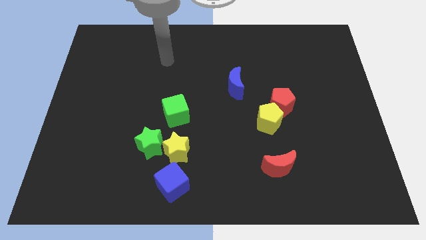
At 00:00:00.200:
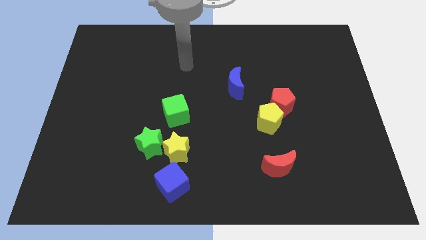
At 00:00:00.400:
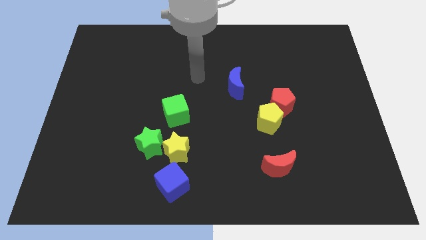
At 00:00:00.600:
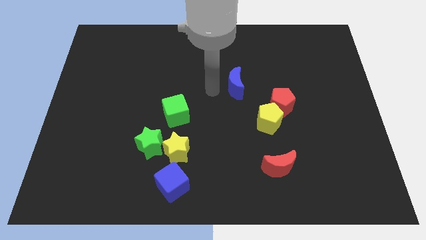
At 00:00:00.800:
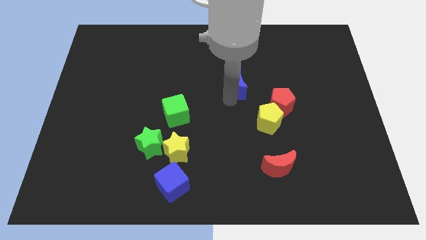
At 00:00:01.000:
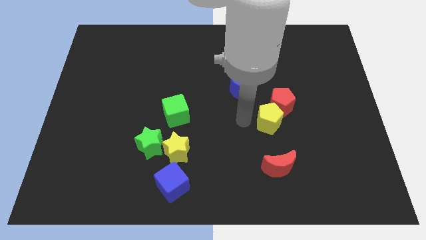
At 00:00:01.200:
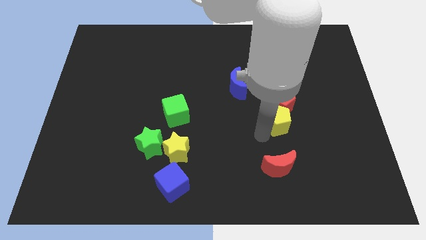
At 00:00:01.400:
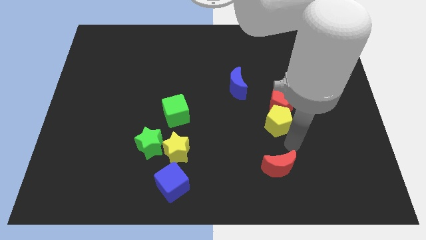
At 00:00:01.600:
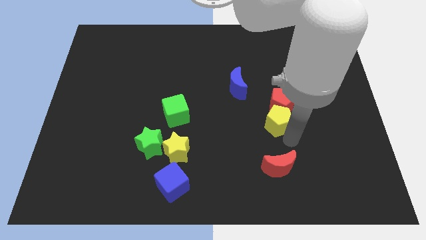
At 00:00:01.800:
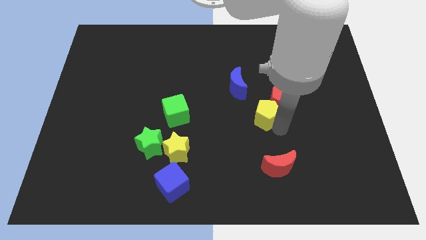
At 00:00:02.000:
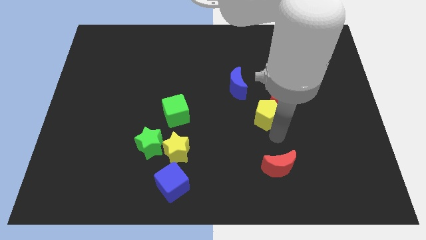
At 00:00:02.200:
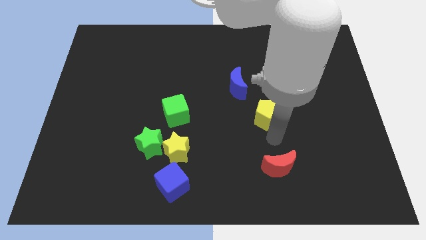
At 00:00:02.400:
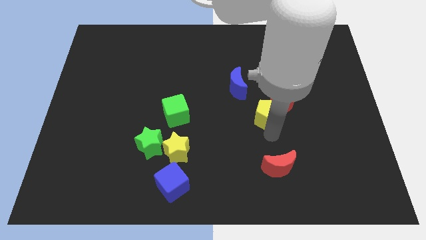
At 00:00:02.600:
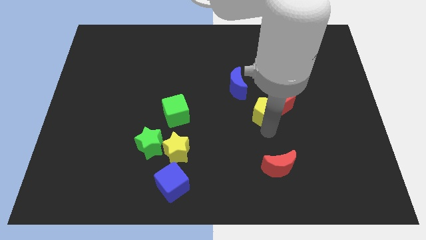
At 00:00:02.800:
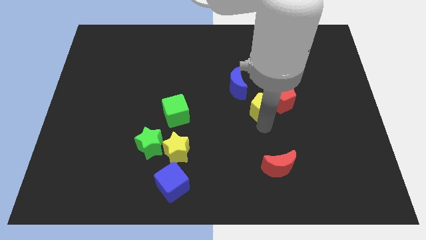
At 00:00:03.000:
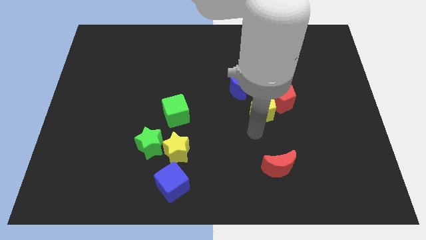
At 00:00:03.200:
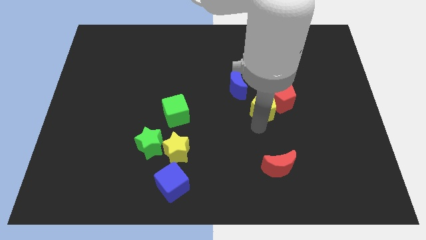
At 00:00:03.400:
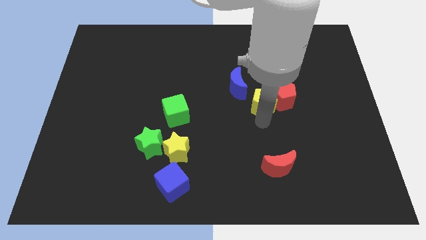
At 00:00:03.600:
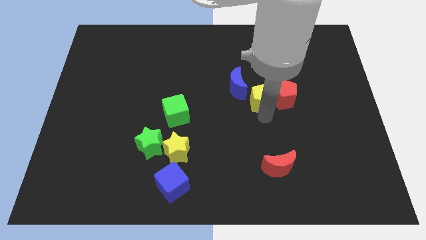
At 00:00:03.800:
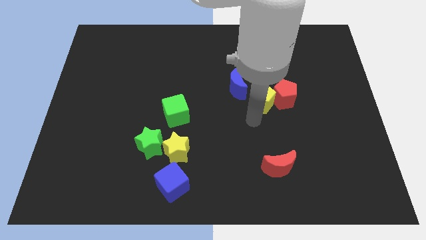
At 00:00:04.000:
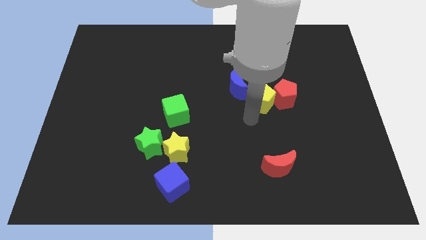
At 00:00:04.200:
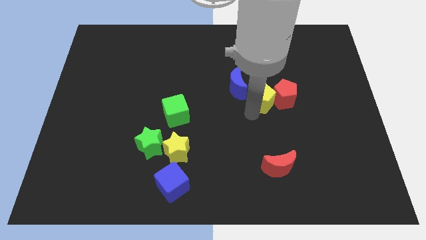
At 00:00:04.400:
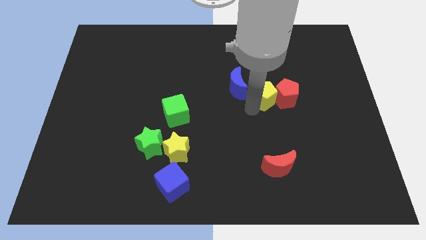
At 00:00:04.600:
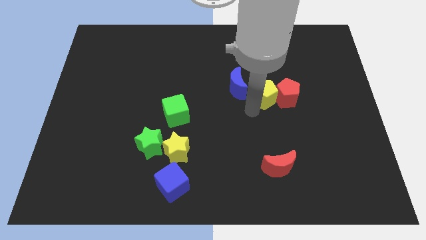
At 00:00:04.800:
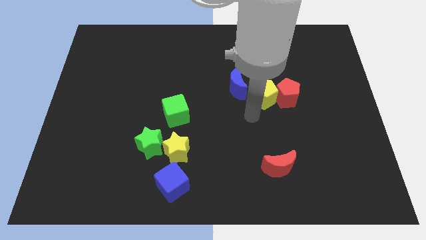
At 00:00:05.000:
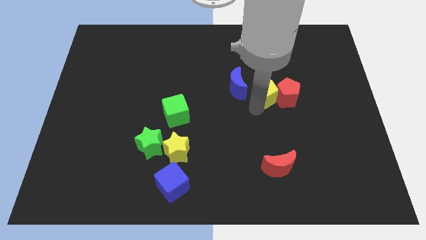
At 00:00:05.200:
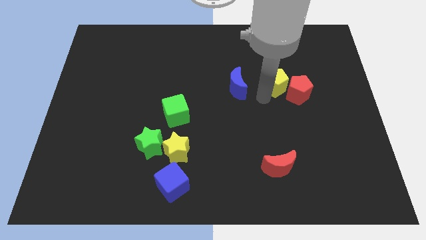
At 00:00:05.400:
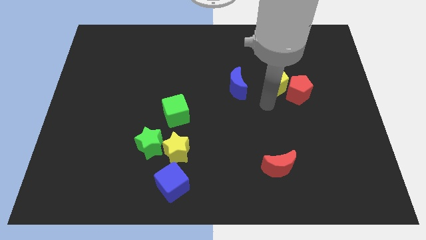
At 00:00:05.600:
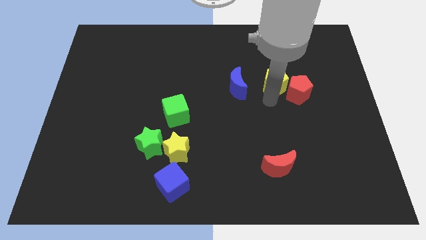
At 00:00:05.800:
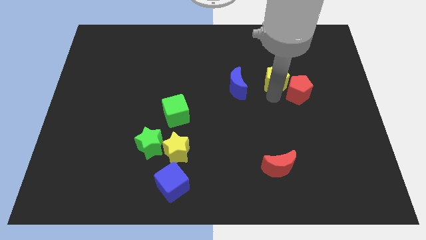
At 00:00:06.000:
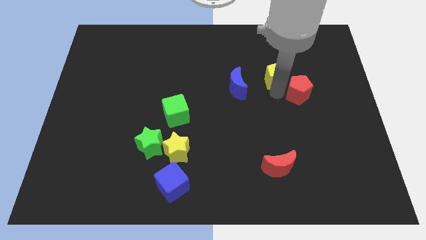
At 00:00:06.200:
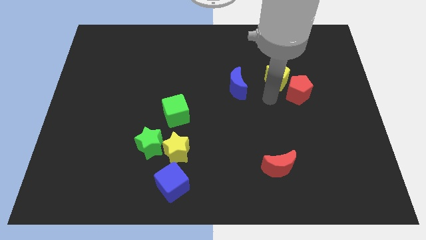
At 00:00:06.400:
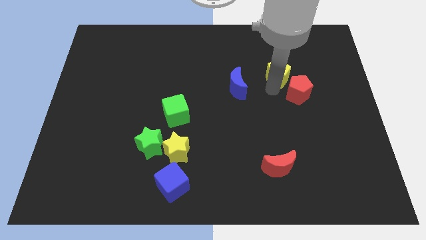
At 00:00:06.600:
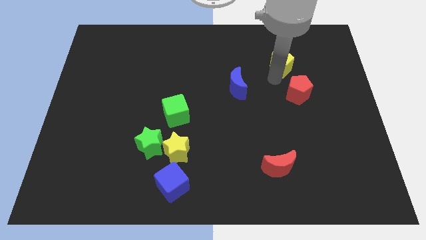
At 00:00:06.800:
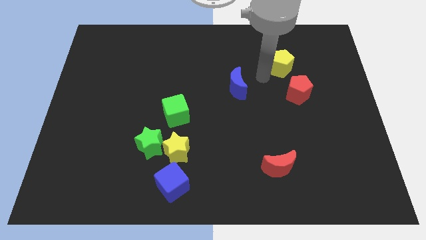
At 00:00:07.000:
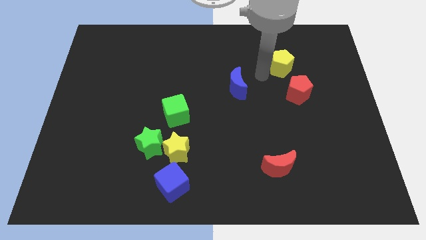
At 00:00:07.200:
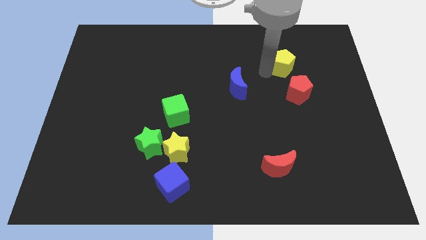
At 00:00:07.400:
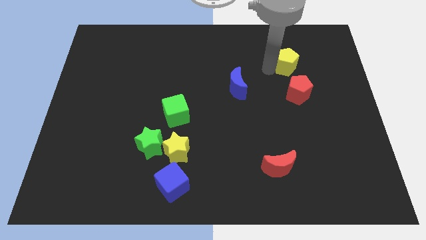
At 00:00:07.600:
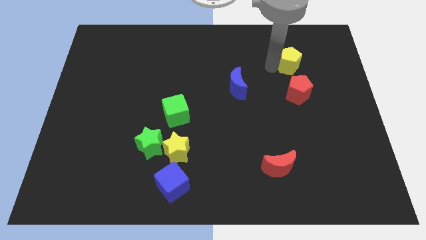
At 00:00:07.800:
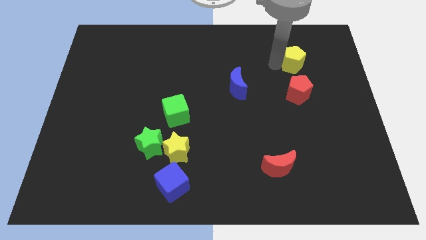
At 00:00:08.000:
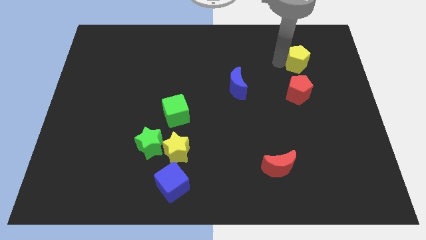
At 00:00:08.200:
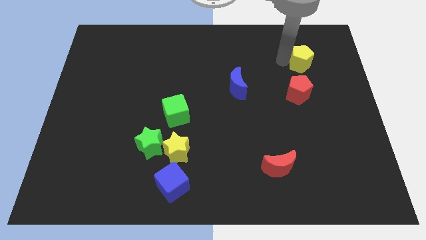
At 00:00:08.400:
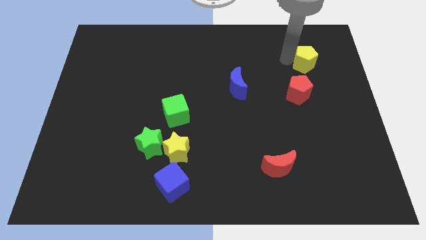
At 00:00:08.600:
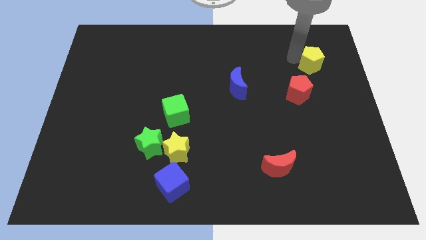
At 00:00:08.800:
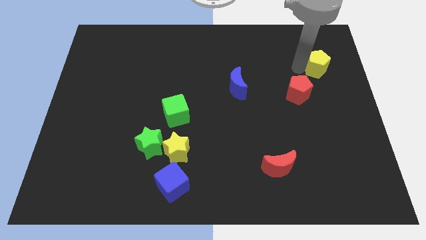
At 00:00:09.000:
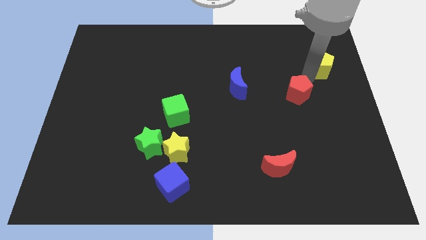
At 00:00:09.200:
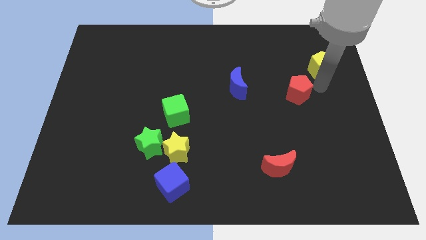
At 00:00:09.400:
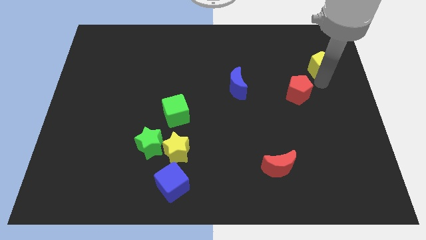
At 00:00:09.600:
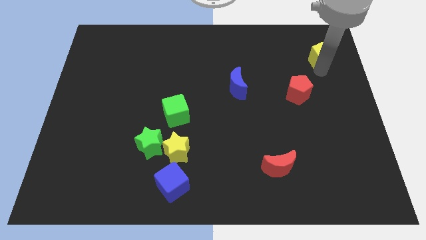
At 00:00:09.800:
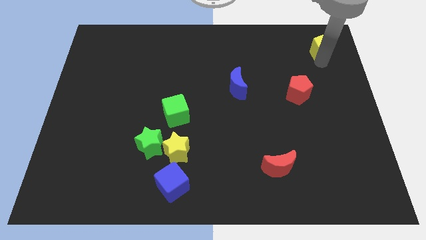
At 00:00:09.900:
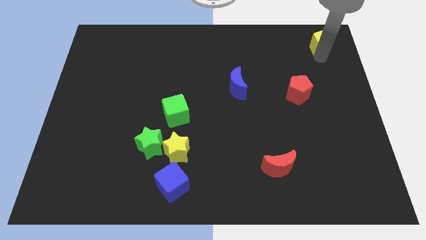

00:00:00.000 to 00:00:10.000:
slide the yellow pentagon to the top right corner
